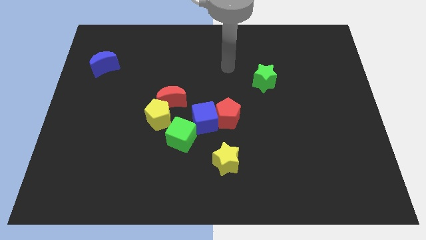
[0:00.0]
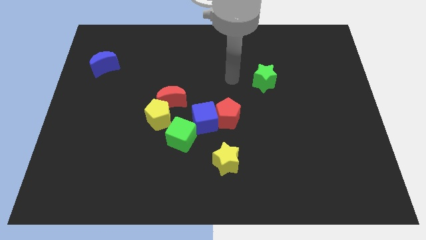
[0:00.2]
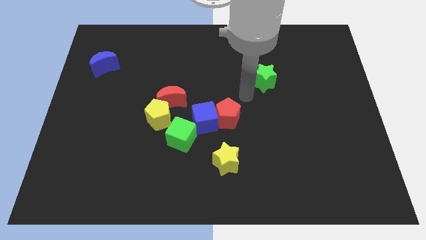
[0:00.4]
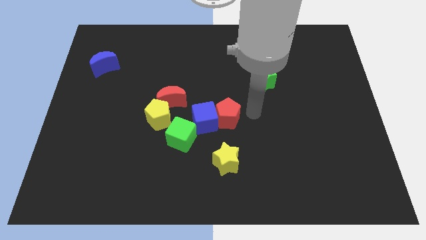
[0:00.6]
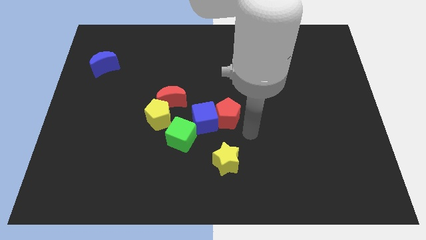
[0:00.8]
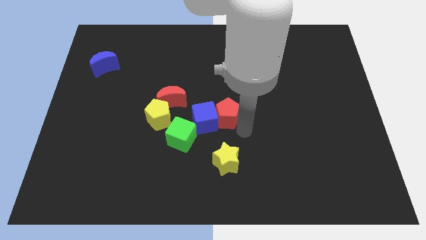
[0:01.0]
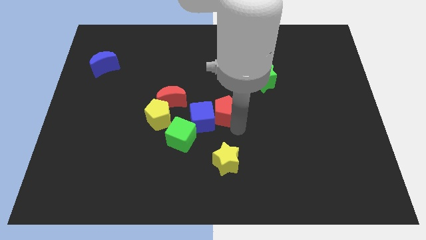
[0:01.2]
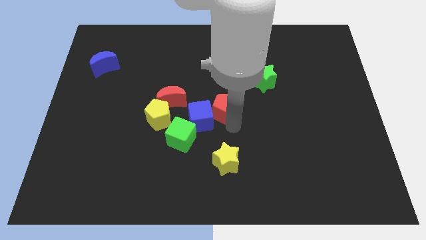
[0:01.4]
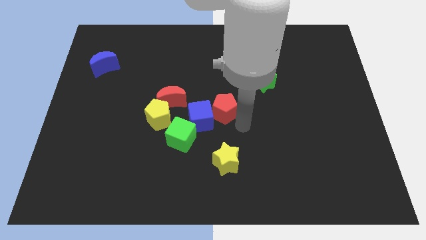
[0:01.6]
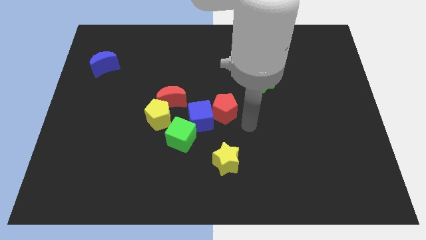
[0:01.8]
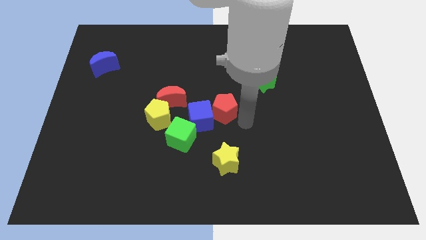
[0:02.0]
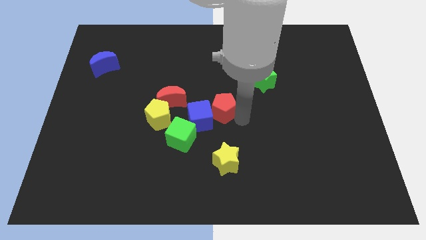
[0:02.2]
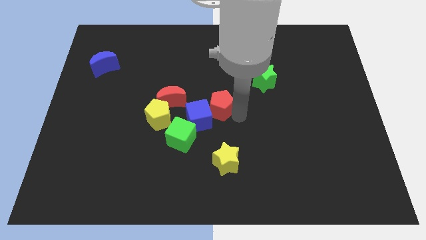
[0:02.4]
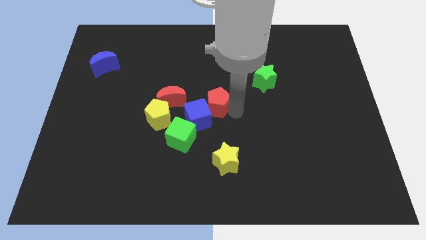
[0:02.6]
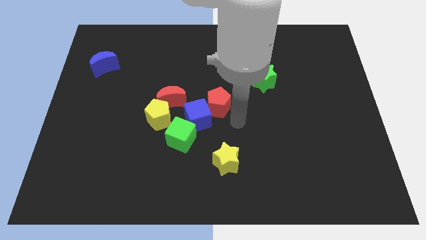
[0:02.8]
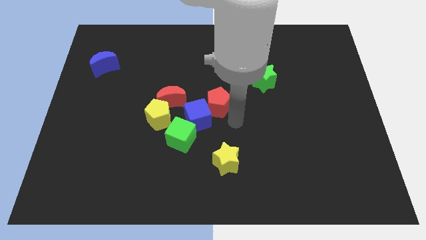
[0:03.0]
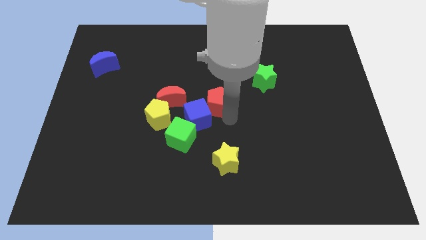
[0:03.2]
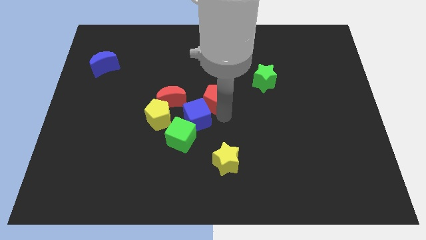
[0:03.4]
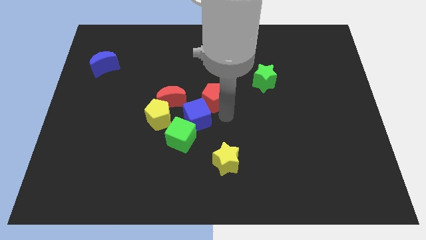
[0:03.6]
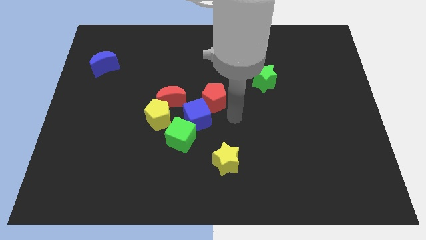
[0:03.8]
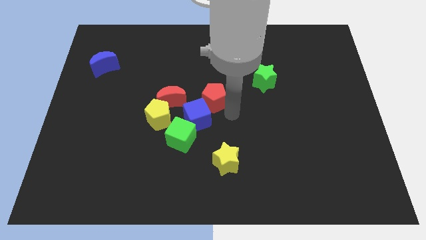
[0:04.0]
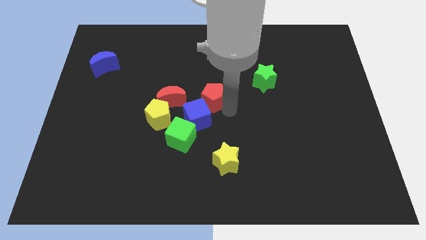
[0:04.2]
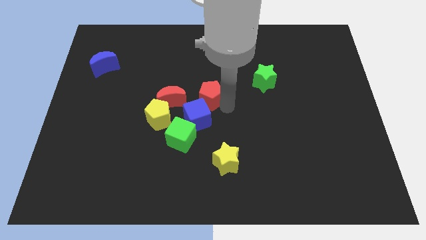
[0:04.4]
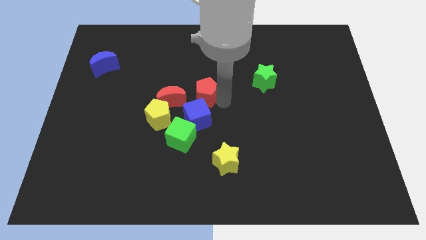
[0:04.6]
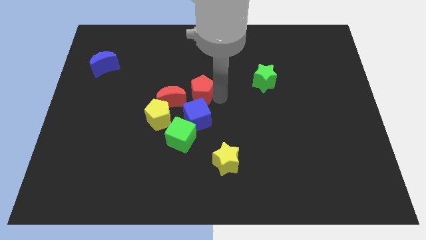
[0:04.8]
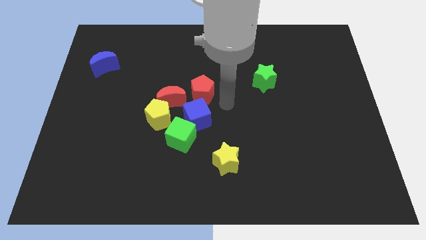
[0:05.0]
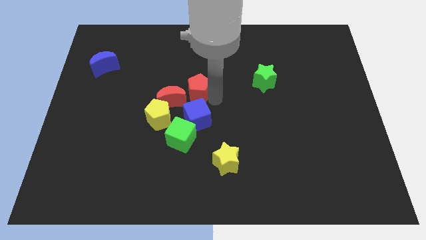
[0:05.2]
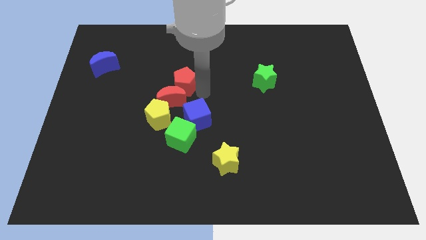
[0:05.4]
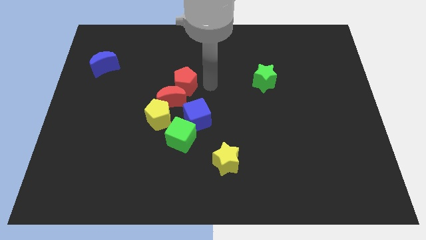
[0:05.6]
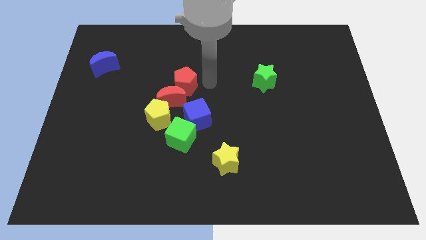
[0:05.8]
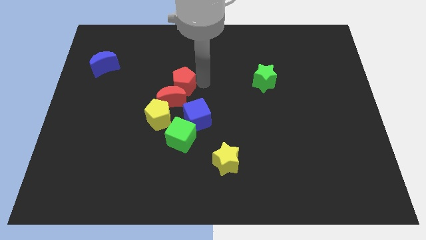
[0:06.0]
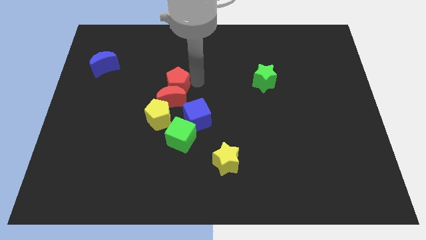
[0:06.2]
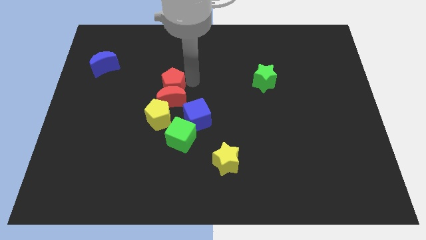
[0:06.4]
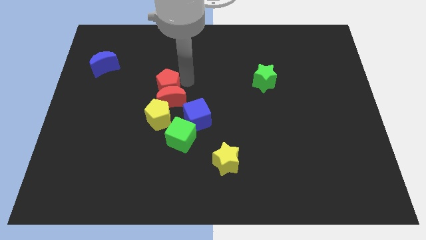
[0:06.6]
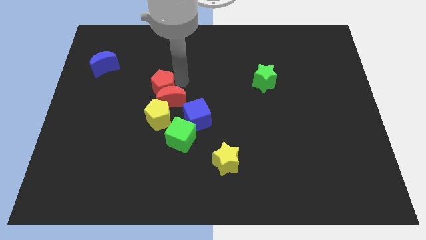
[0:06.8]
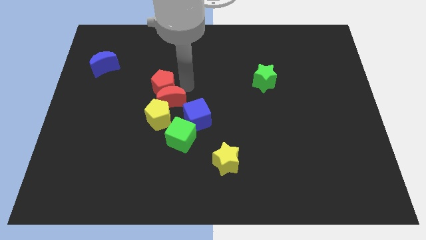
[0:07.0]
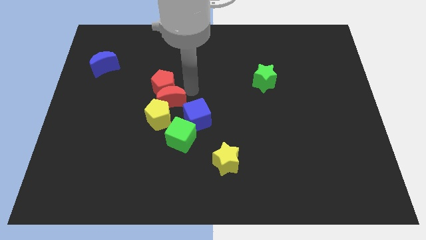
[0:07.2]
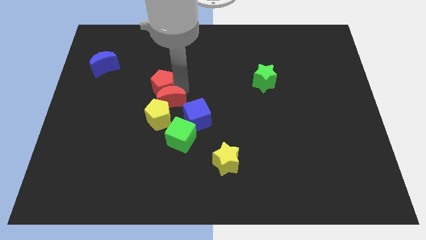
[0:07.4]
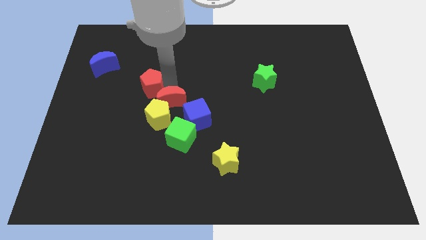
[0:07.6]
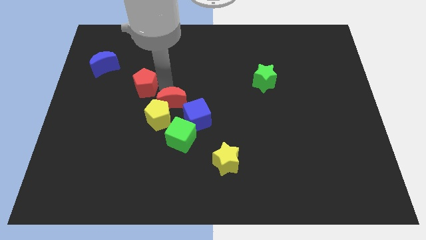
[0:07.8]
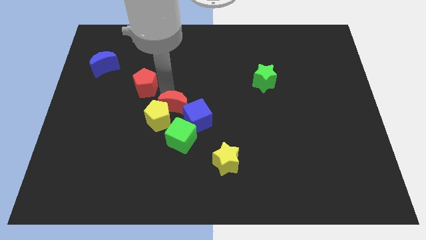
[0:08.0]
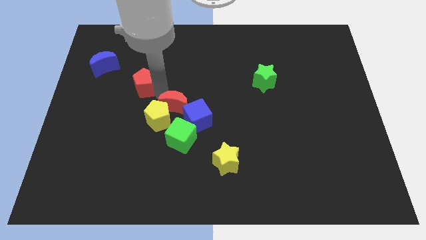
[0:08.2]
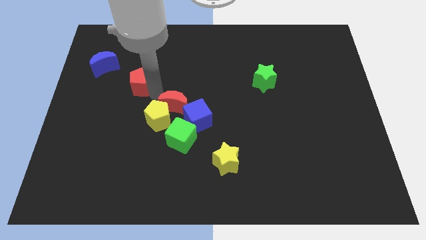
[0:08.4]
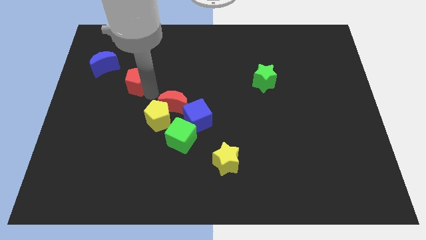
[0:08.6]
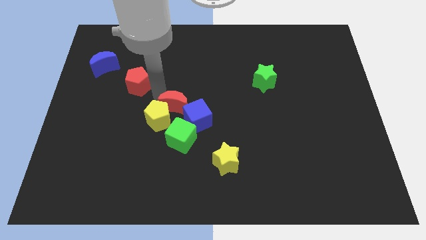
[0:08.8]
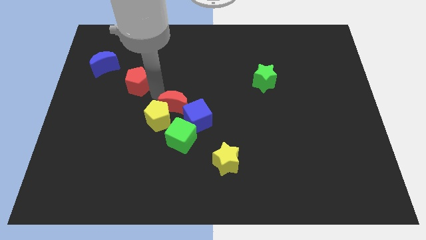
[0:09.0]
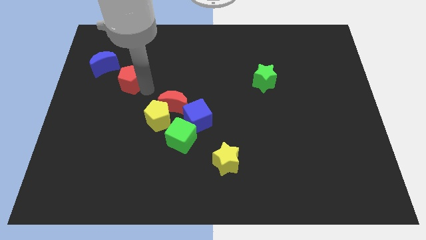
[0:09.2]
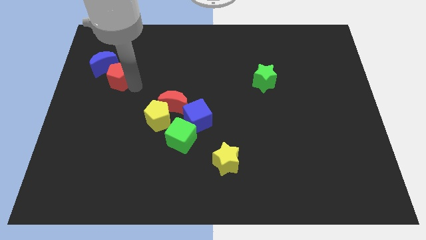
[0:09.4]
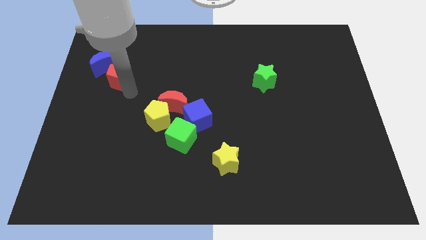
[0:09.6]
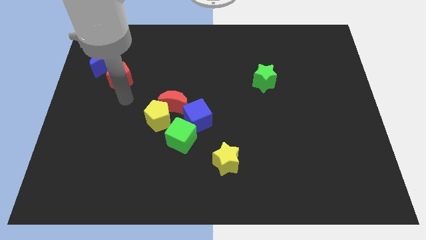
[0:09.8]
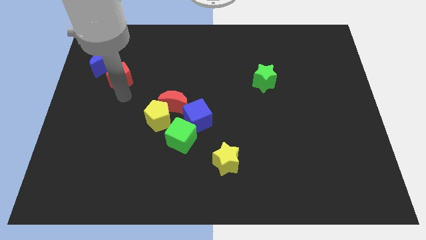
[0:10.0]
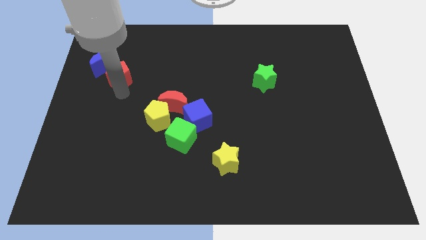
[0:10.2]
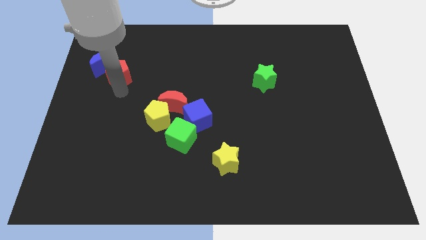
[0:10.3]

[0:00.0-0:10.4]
put the red pentagon close to the blue moon

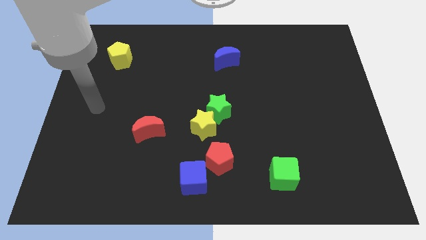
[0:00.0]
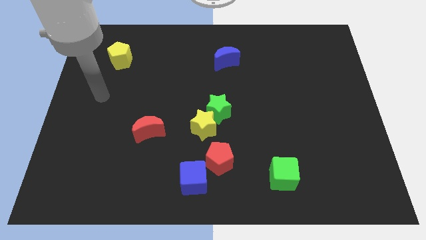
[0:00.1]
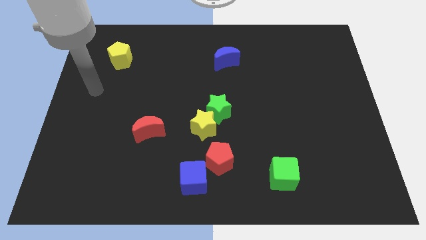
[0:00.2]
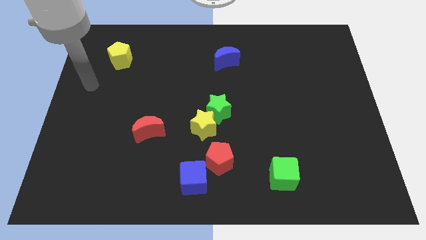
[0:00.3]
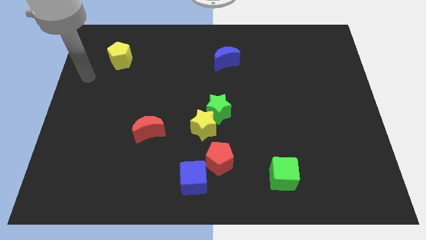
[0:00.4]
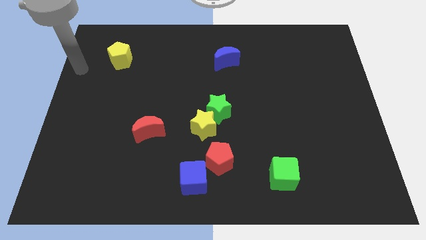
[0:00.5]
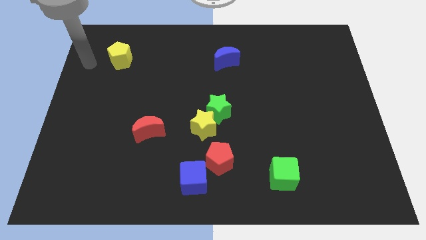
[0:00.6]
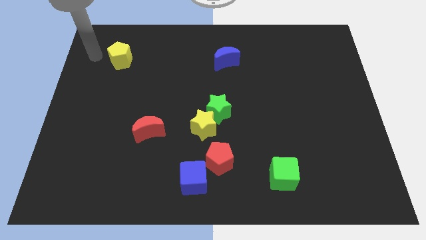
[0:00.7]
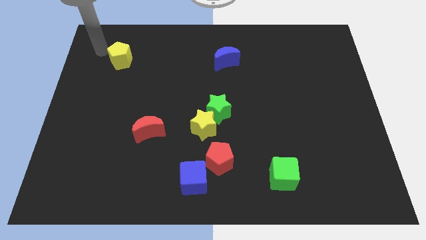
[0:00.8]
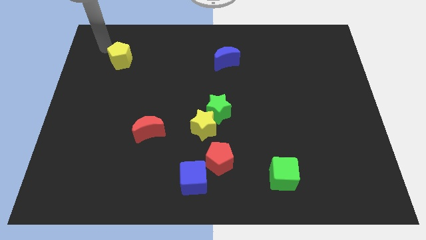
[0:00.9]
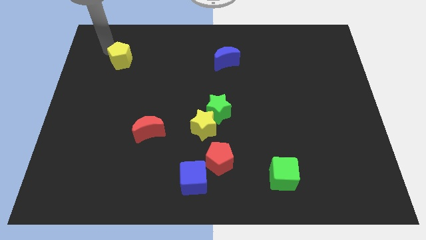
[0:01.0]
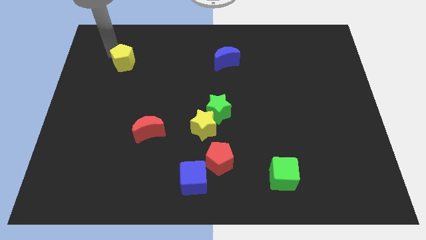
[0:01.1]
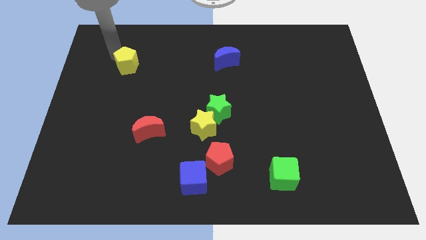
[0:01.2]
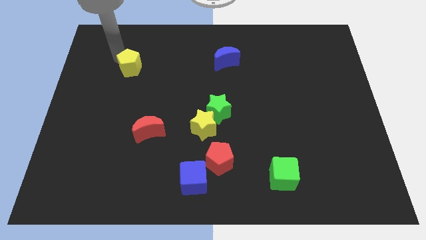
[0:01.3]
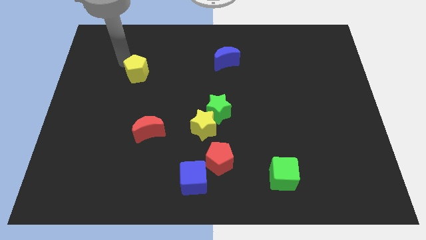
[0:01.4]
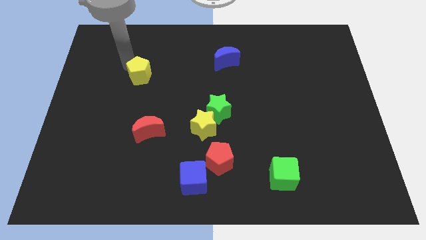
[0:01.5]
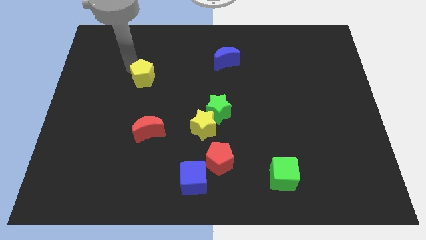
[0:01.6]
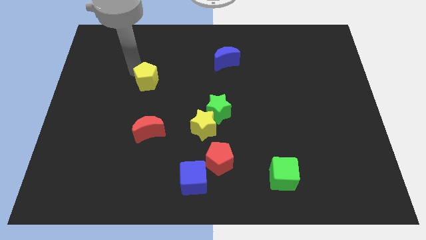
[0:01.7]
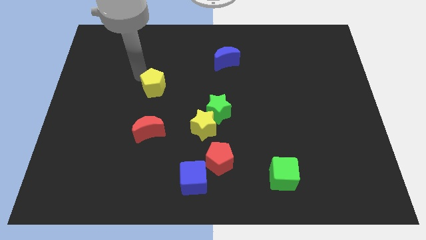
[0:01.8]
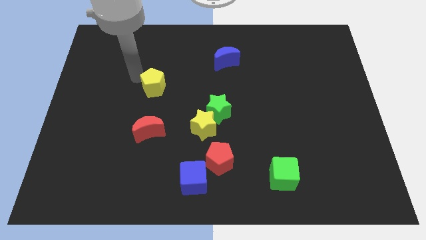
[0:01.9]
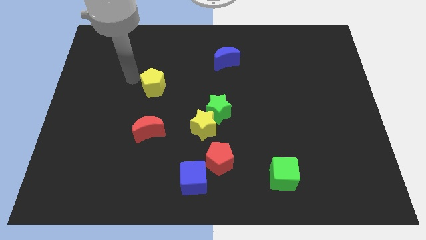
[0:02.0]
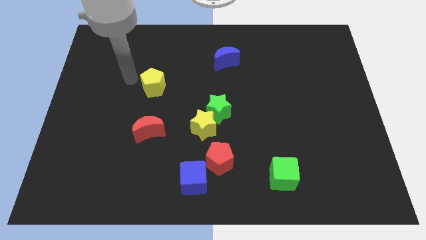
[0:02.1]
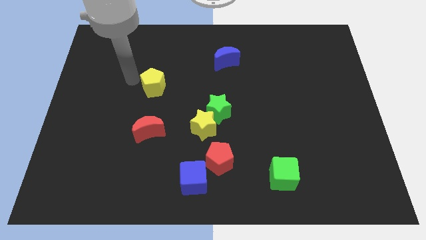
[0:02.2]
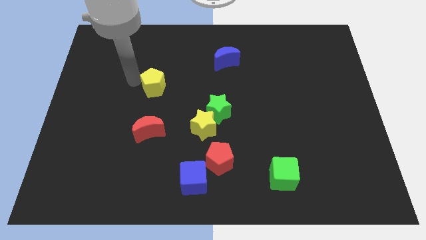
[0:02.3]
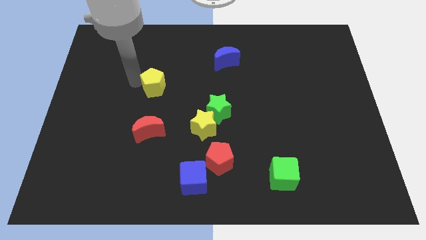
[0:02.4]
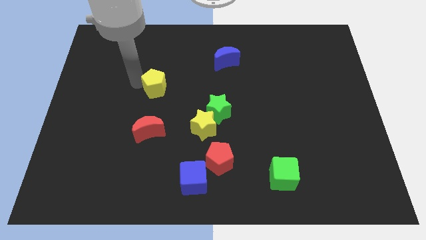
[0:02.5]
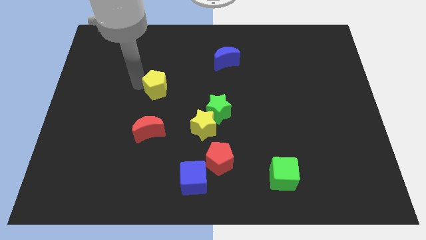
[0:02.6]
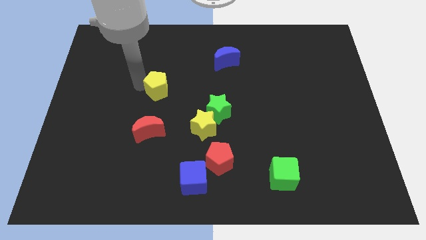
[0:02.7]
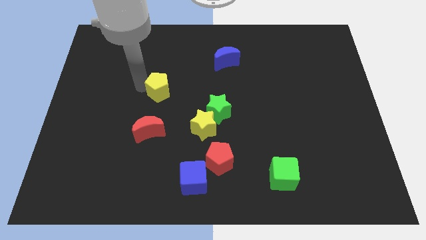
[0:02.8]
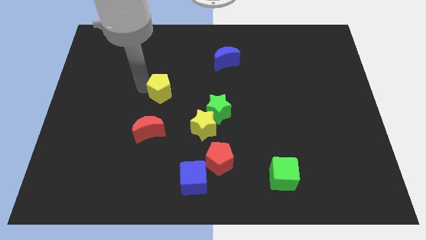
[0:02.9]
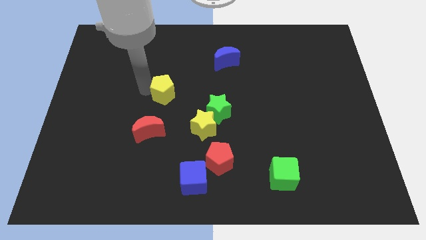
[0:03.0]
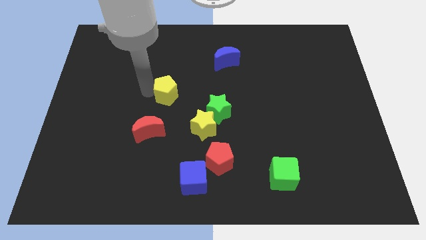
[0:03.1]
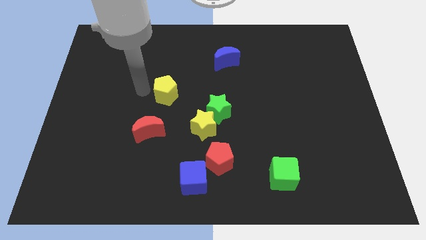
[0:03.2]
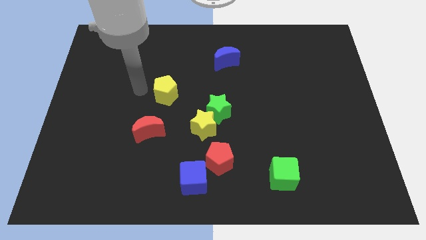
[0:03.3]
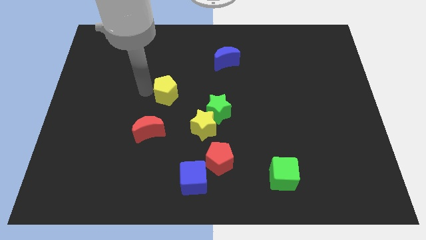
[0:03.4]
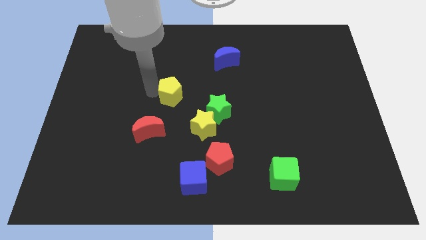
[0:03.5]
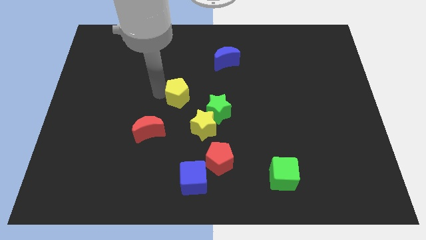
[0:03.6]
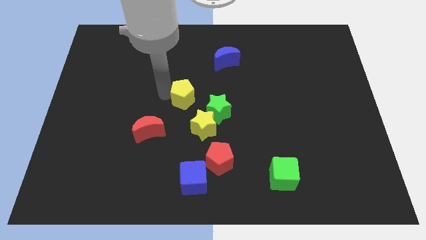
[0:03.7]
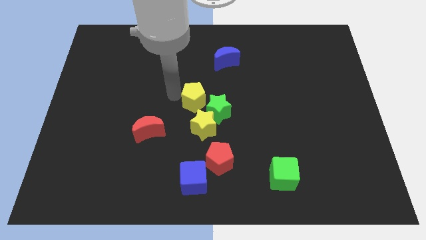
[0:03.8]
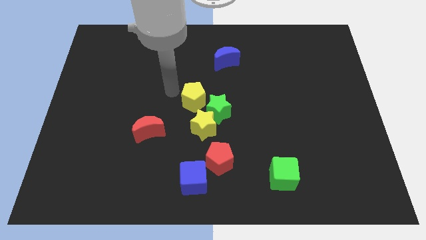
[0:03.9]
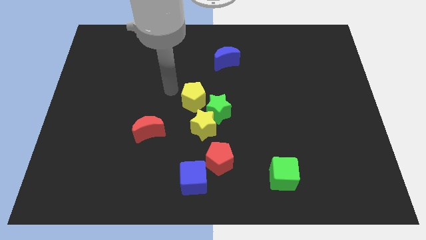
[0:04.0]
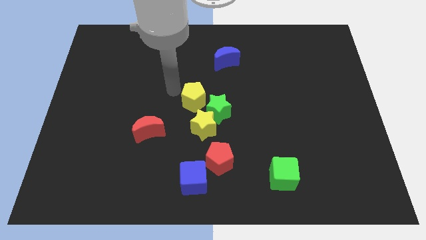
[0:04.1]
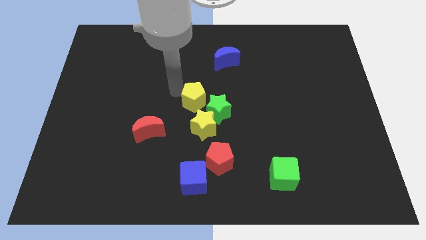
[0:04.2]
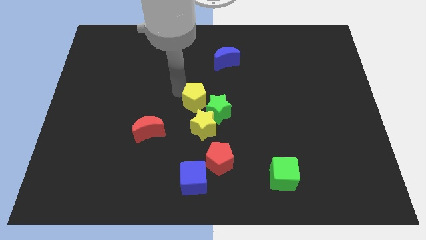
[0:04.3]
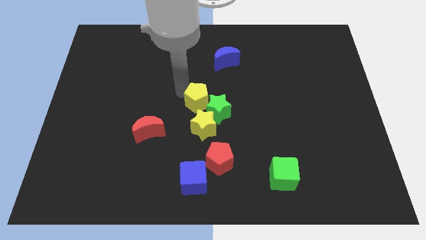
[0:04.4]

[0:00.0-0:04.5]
slide the yellow pentagon to the green star
